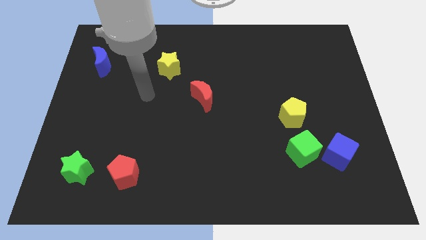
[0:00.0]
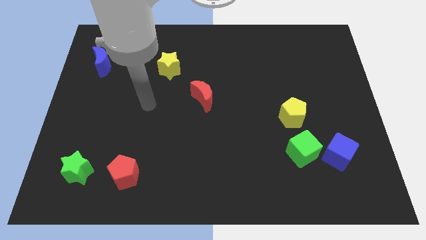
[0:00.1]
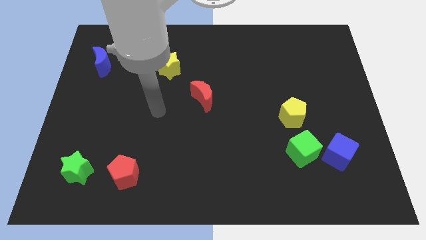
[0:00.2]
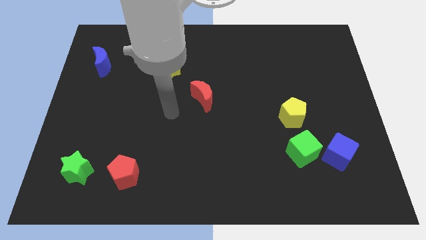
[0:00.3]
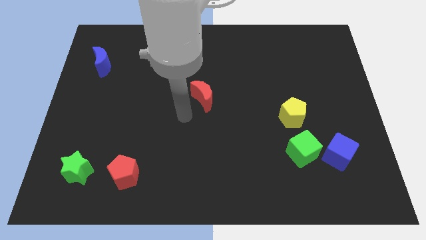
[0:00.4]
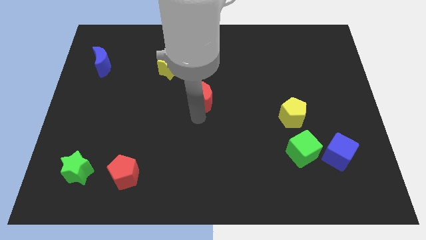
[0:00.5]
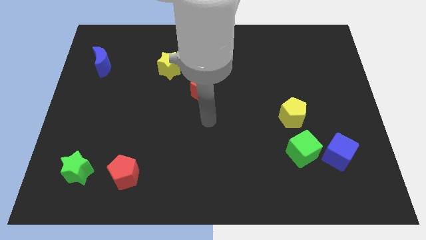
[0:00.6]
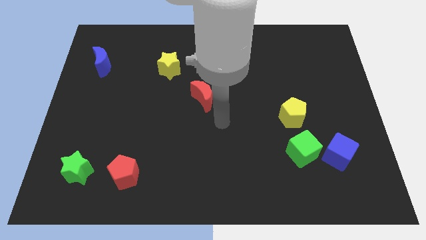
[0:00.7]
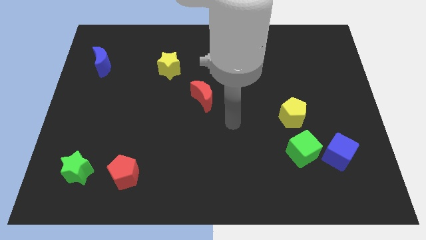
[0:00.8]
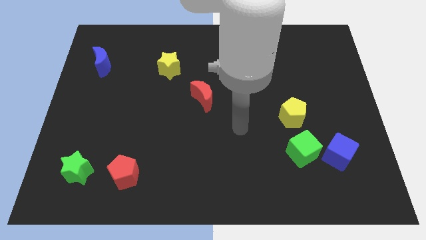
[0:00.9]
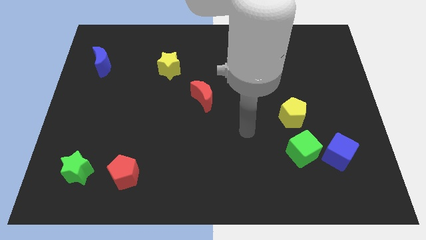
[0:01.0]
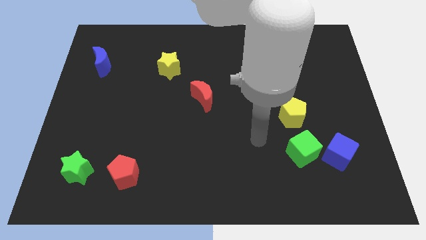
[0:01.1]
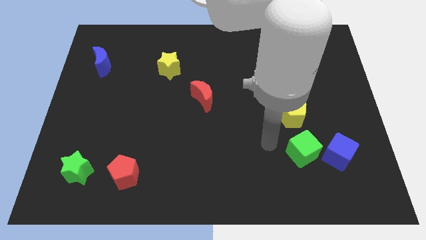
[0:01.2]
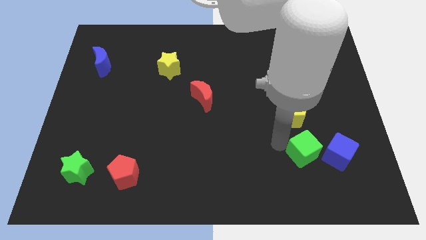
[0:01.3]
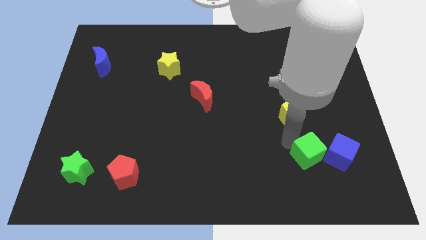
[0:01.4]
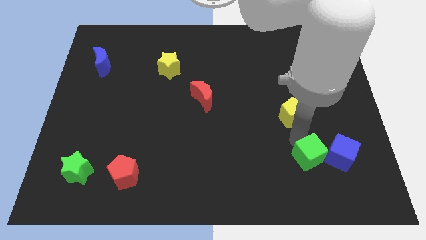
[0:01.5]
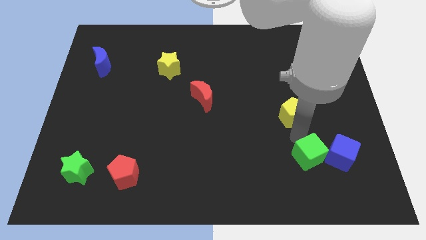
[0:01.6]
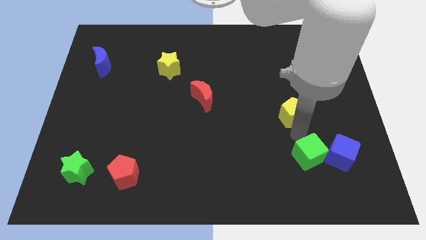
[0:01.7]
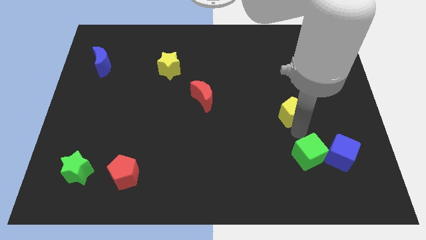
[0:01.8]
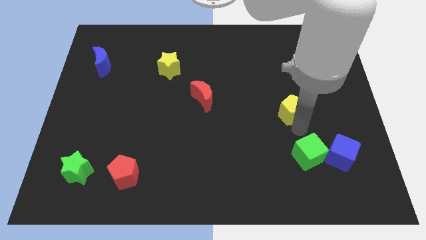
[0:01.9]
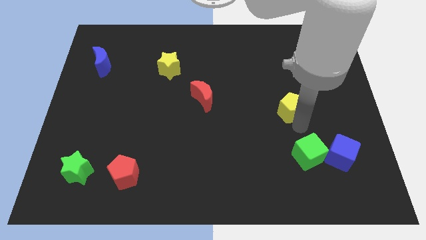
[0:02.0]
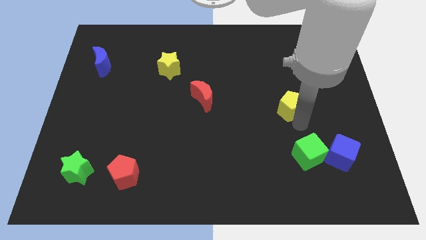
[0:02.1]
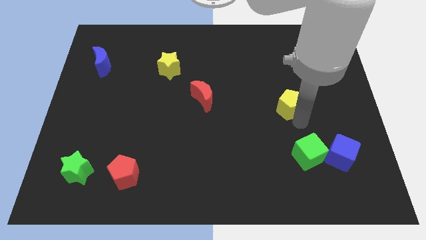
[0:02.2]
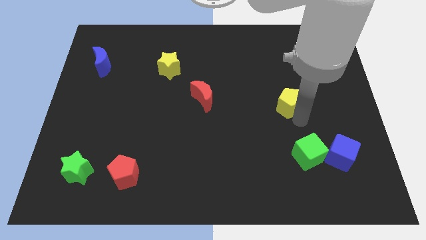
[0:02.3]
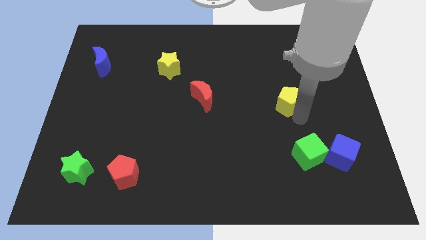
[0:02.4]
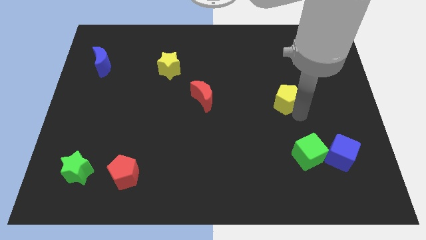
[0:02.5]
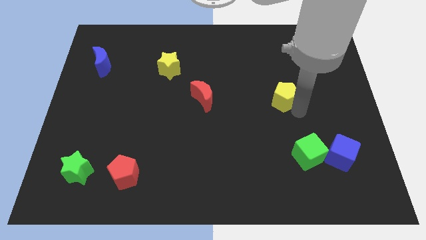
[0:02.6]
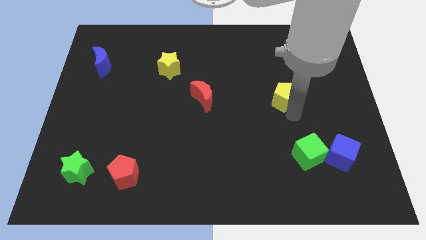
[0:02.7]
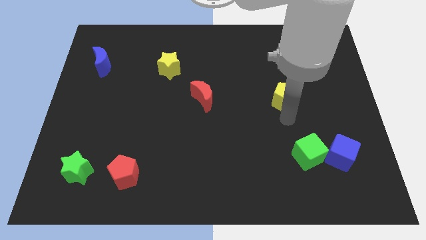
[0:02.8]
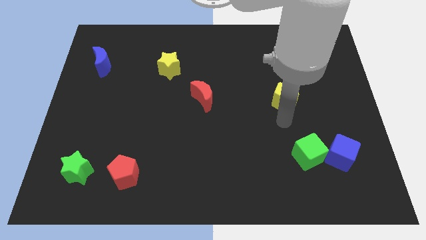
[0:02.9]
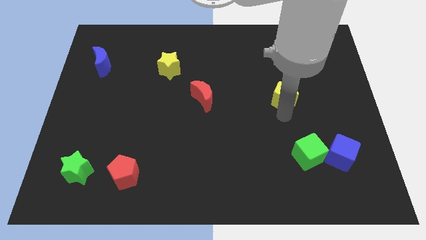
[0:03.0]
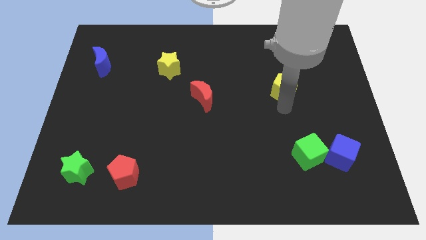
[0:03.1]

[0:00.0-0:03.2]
slightly push the yellow pentagon upwards

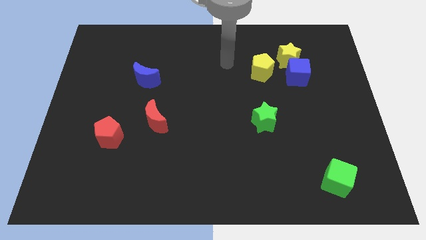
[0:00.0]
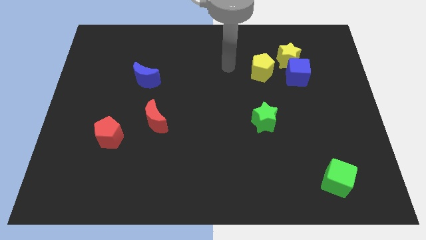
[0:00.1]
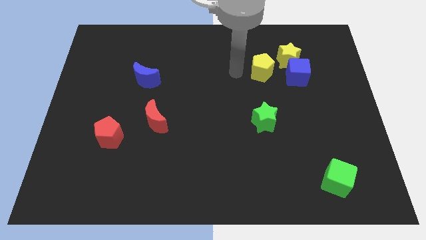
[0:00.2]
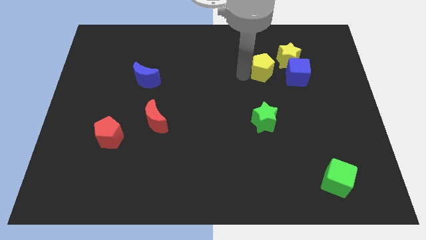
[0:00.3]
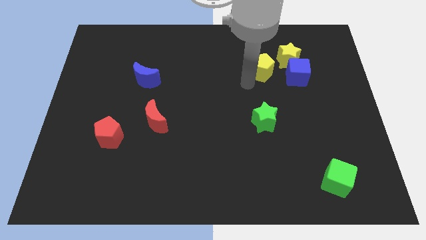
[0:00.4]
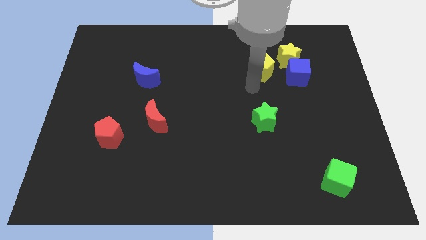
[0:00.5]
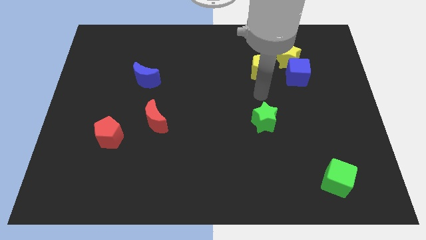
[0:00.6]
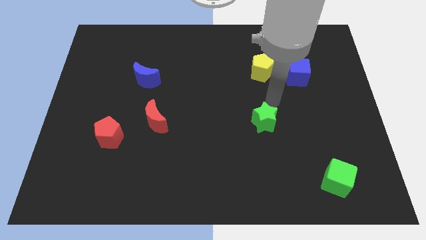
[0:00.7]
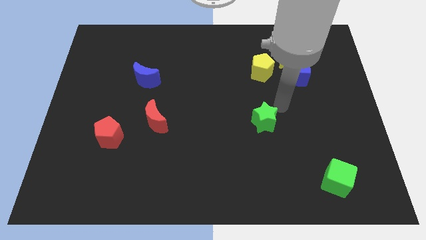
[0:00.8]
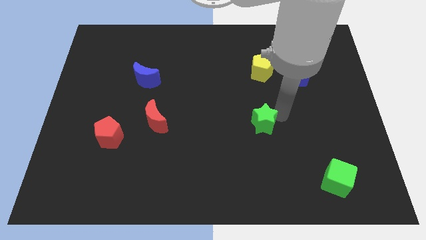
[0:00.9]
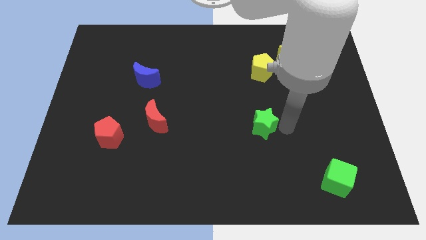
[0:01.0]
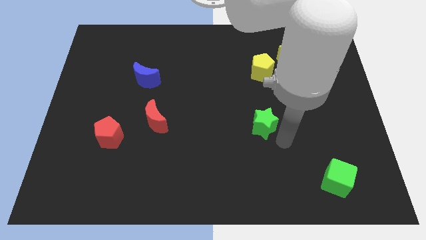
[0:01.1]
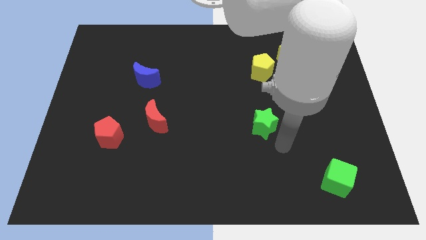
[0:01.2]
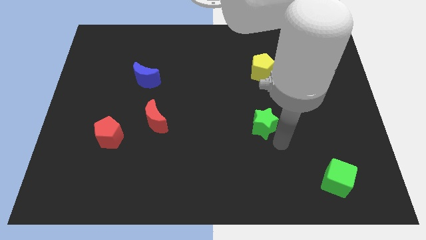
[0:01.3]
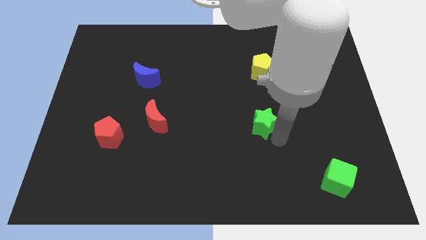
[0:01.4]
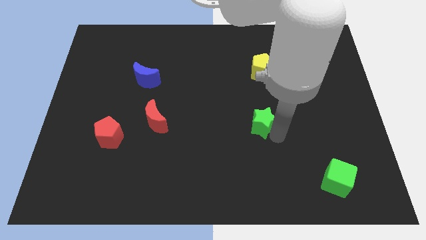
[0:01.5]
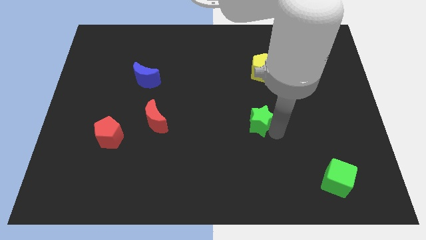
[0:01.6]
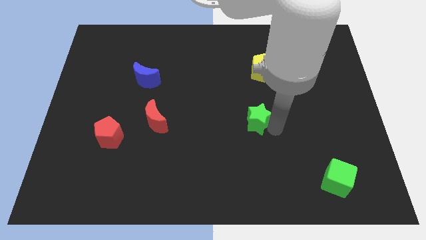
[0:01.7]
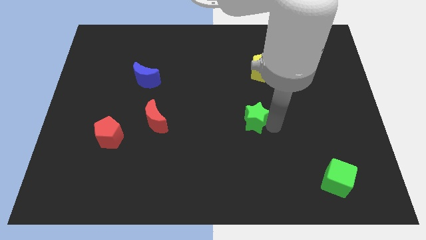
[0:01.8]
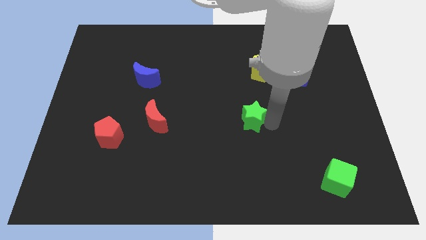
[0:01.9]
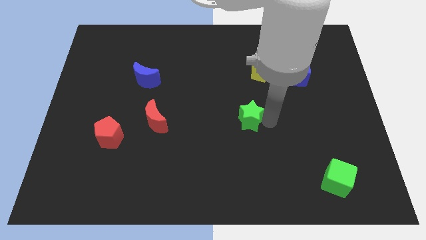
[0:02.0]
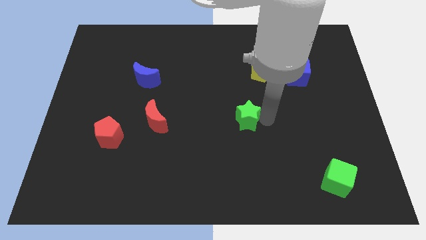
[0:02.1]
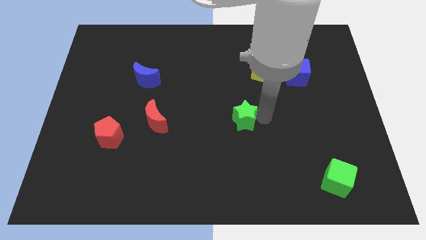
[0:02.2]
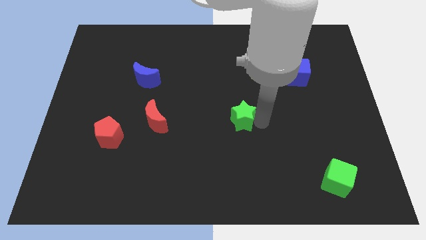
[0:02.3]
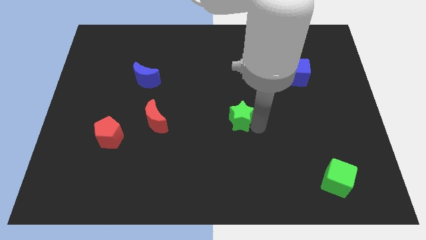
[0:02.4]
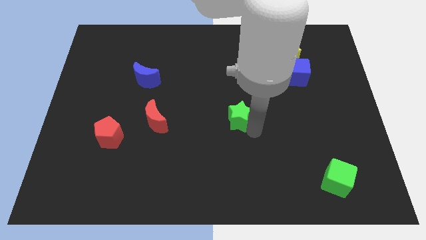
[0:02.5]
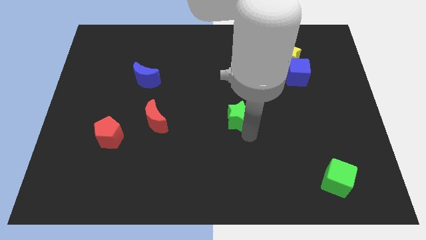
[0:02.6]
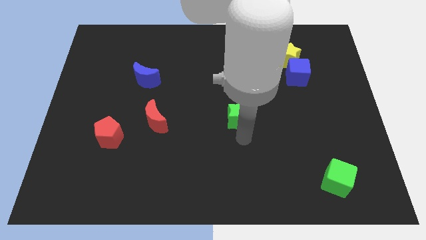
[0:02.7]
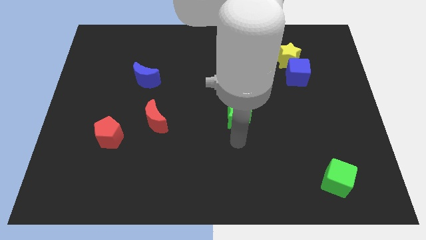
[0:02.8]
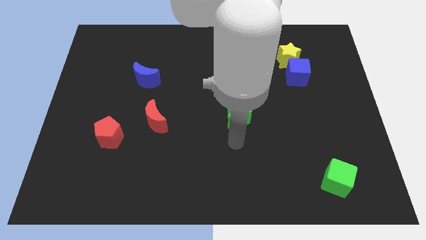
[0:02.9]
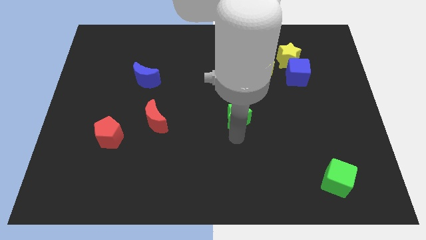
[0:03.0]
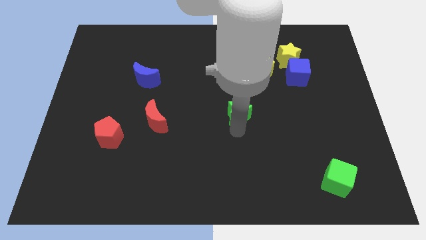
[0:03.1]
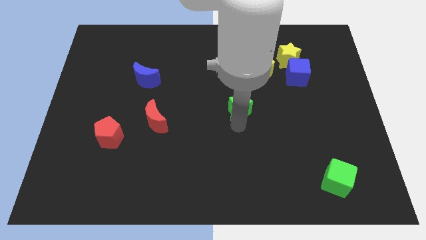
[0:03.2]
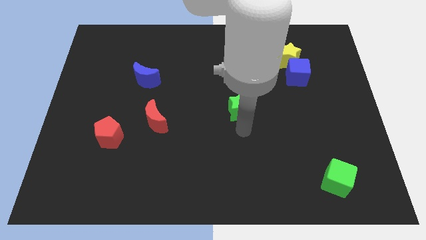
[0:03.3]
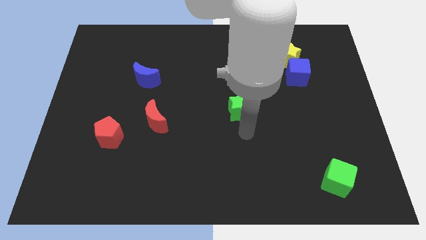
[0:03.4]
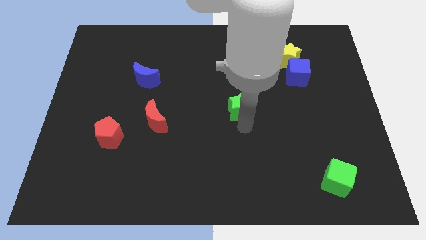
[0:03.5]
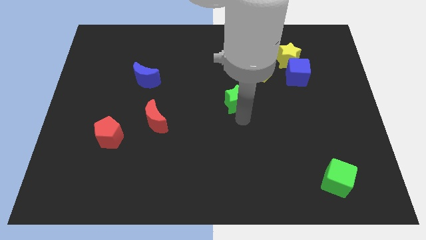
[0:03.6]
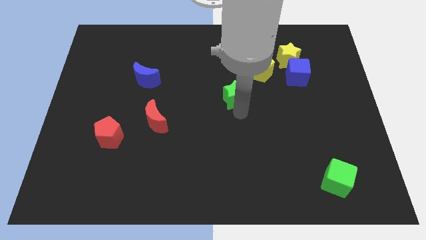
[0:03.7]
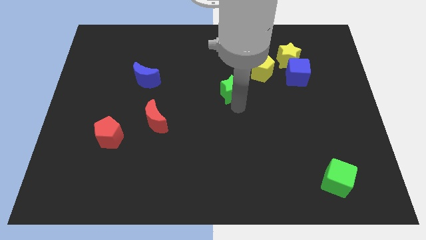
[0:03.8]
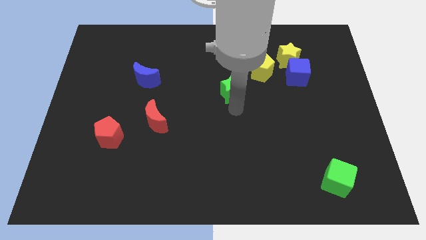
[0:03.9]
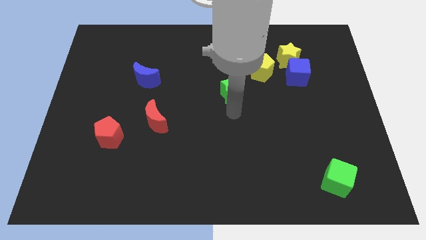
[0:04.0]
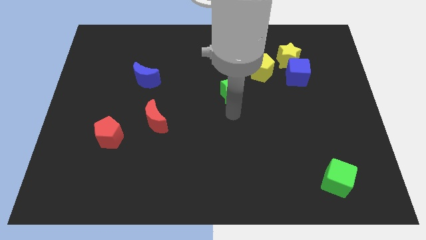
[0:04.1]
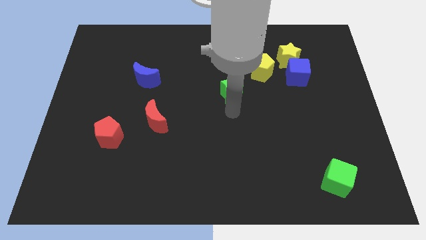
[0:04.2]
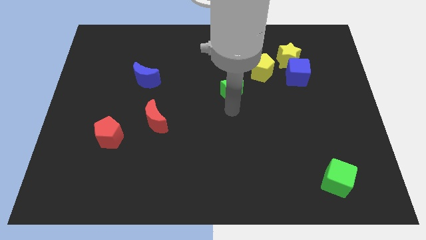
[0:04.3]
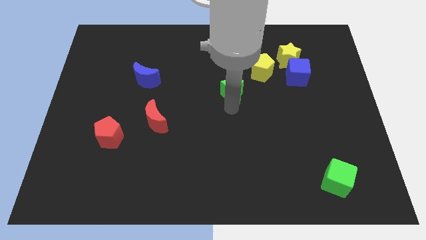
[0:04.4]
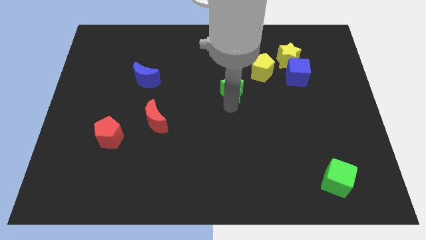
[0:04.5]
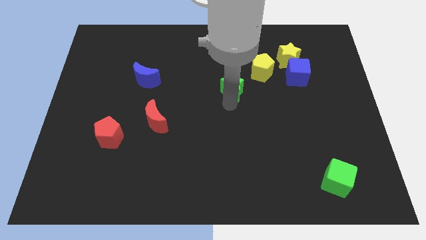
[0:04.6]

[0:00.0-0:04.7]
move the green star somewhat upwards

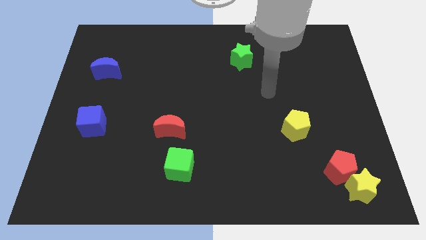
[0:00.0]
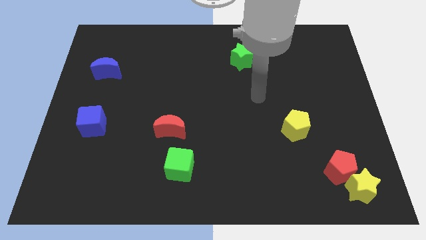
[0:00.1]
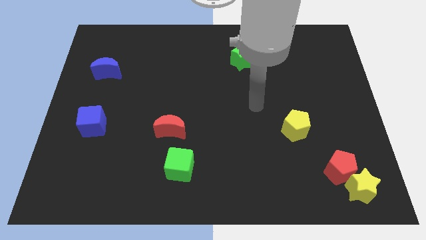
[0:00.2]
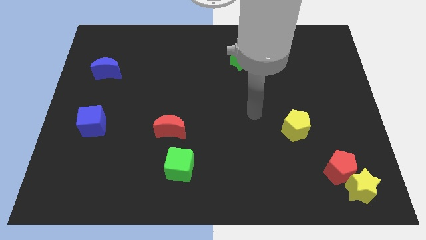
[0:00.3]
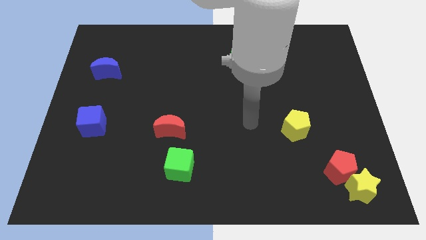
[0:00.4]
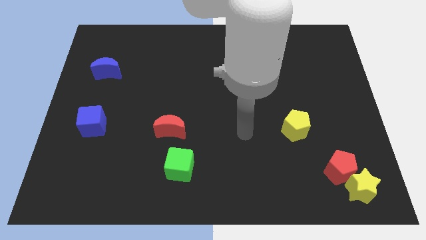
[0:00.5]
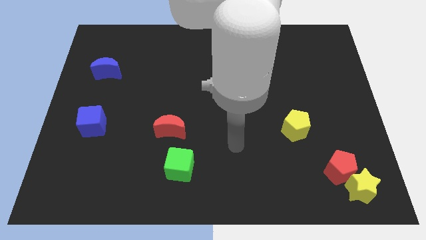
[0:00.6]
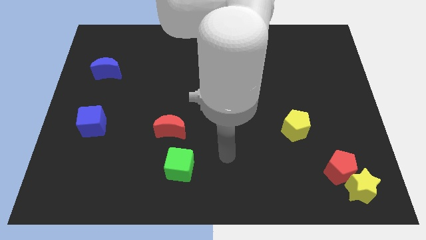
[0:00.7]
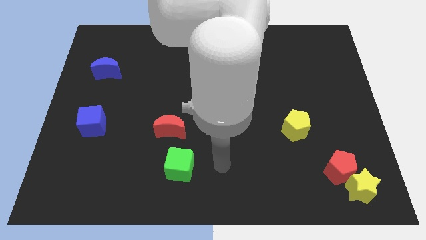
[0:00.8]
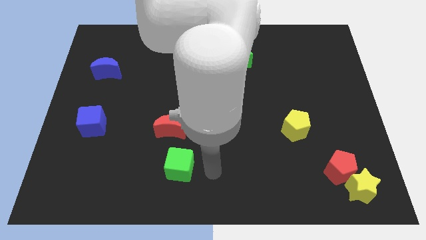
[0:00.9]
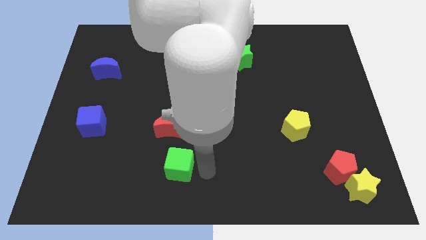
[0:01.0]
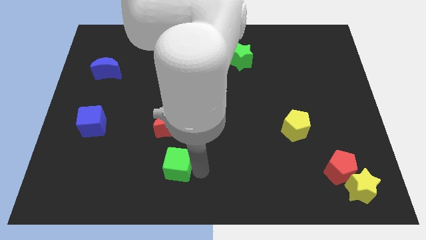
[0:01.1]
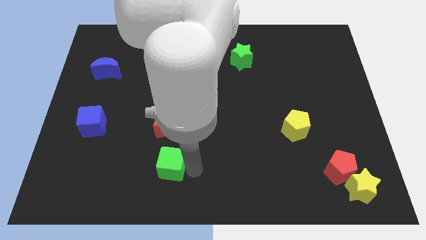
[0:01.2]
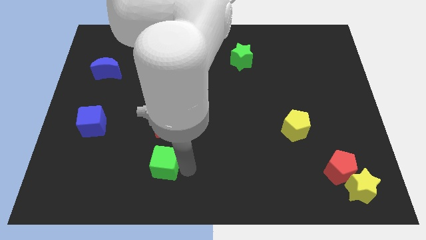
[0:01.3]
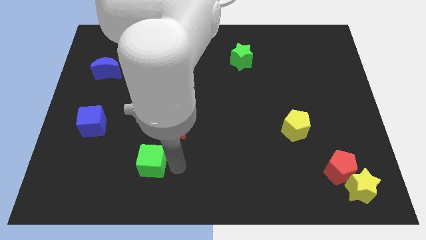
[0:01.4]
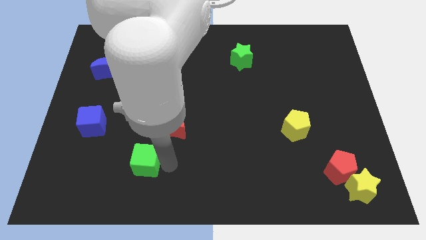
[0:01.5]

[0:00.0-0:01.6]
slightly push the green cube left
